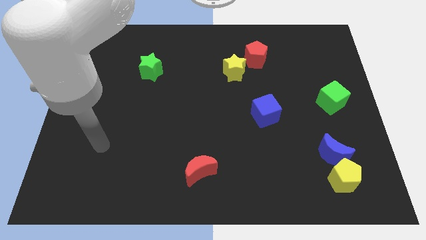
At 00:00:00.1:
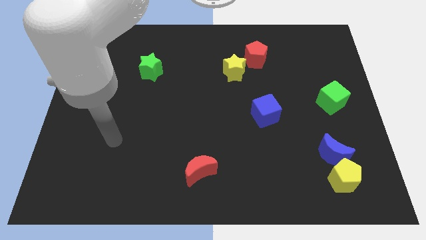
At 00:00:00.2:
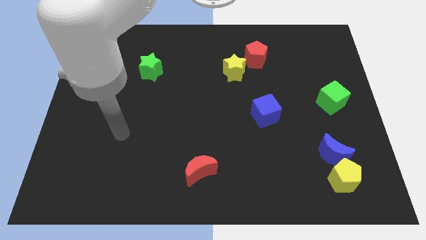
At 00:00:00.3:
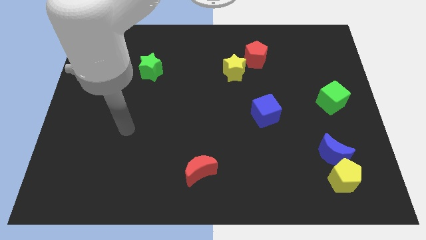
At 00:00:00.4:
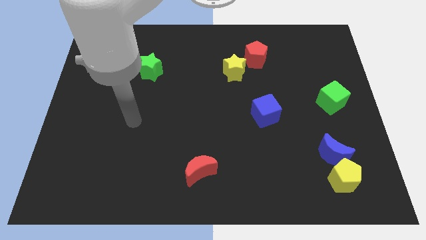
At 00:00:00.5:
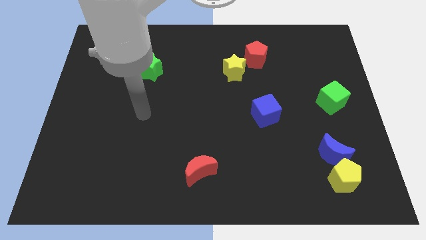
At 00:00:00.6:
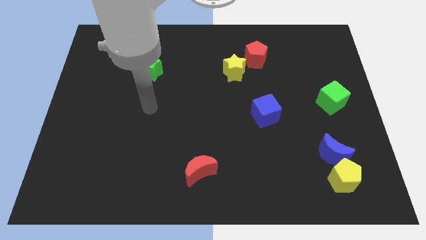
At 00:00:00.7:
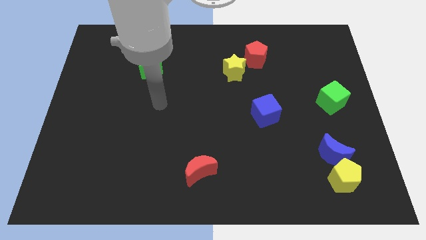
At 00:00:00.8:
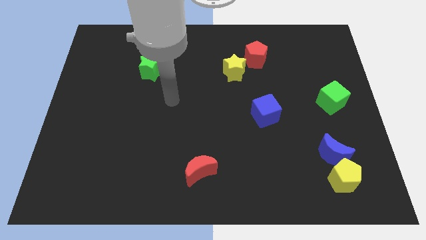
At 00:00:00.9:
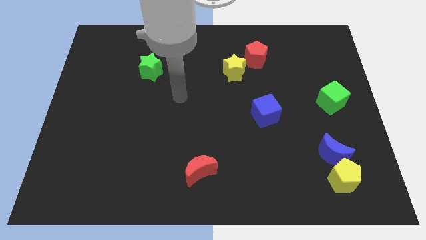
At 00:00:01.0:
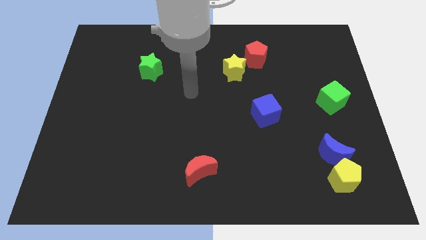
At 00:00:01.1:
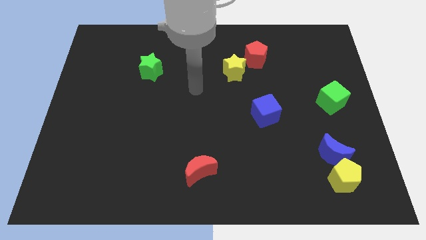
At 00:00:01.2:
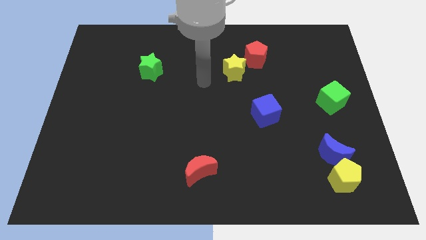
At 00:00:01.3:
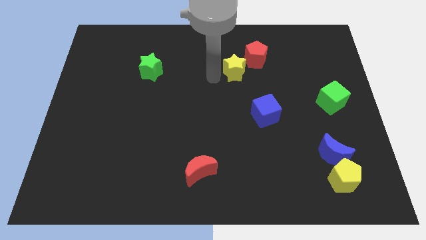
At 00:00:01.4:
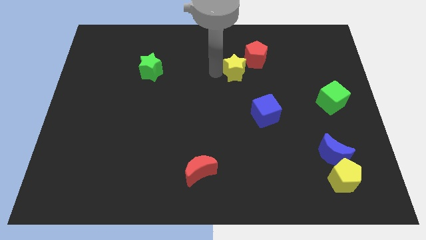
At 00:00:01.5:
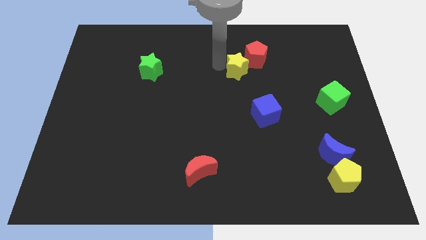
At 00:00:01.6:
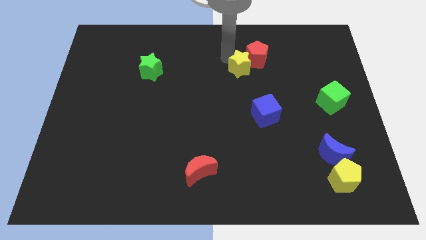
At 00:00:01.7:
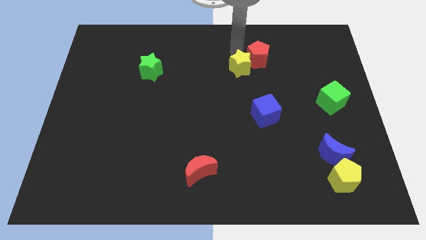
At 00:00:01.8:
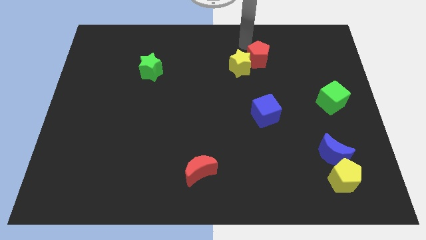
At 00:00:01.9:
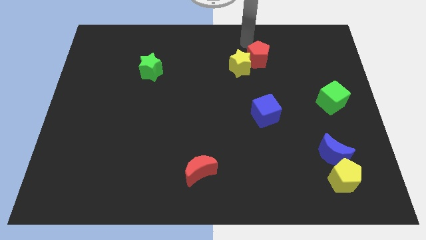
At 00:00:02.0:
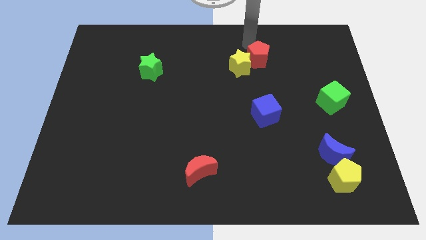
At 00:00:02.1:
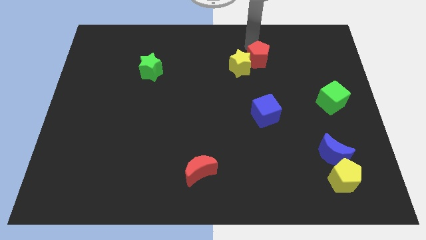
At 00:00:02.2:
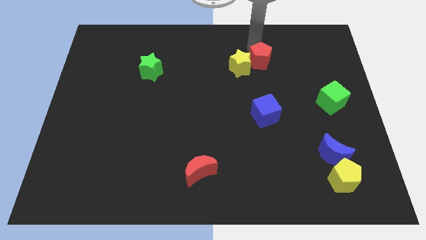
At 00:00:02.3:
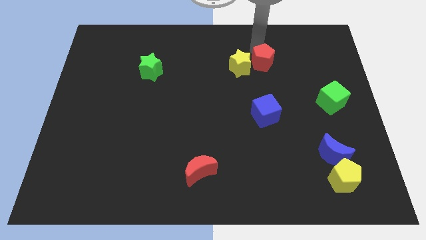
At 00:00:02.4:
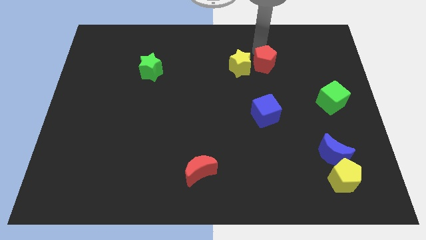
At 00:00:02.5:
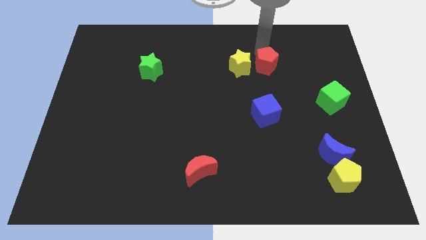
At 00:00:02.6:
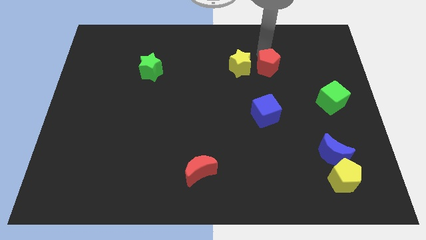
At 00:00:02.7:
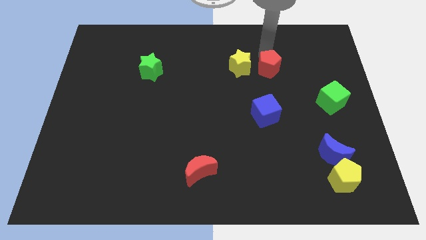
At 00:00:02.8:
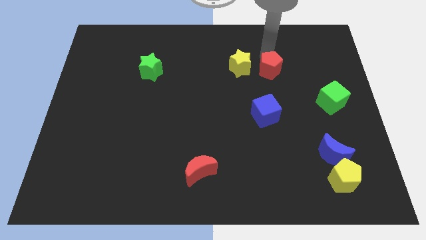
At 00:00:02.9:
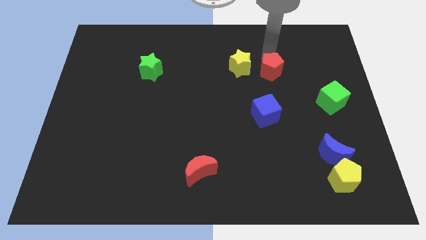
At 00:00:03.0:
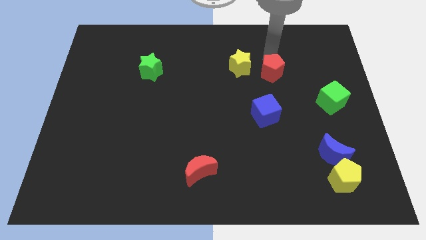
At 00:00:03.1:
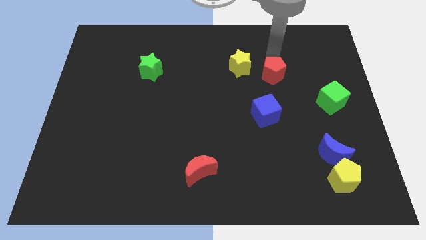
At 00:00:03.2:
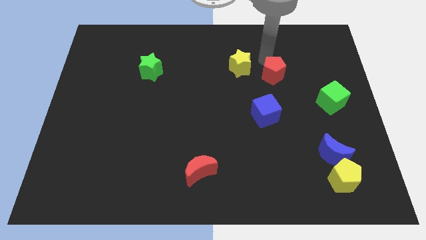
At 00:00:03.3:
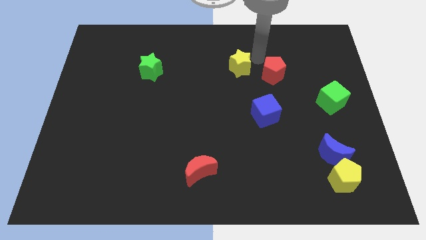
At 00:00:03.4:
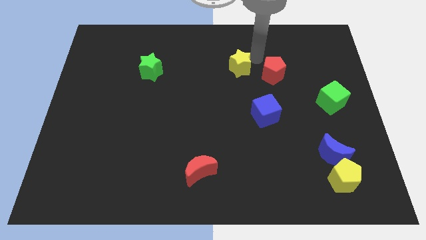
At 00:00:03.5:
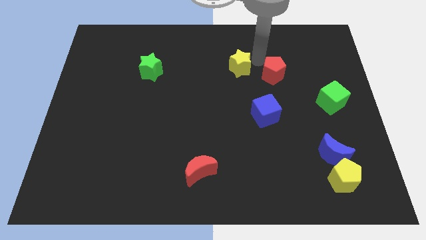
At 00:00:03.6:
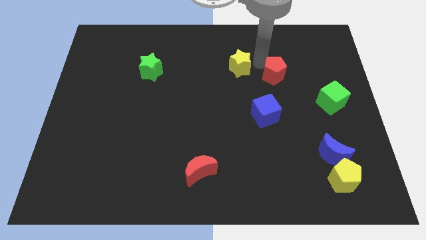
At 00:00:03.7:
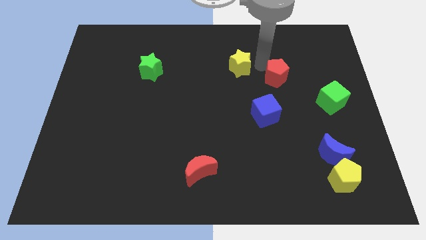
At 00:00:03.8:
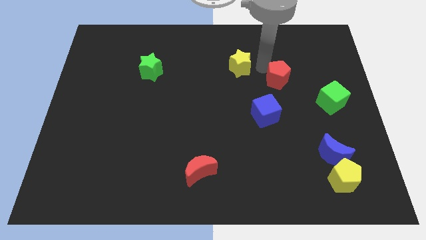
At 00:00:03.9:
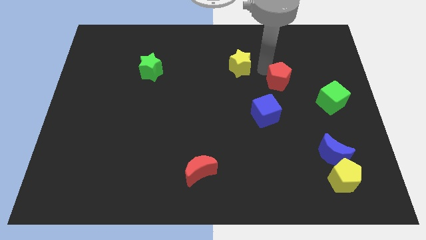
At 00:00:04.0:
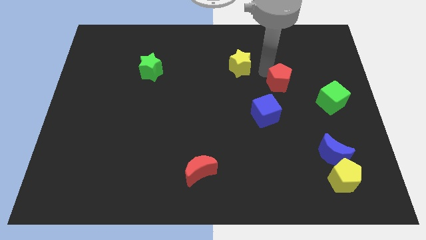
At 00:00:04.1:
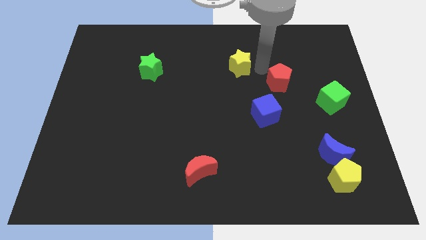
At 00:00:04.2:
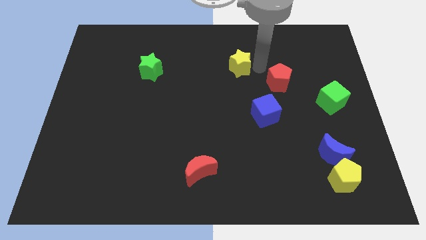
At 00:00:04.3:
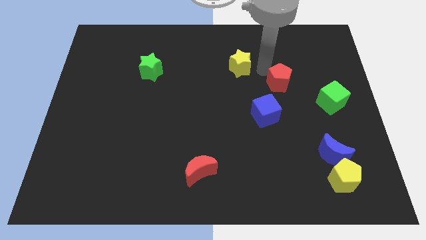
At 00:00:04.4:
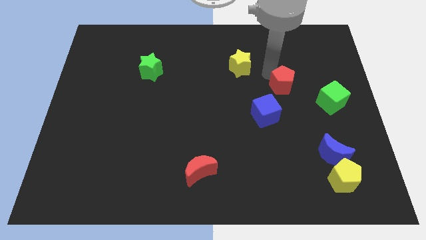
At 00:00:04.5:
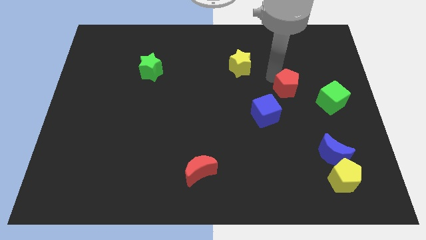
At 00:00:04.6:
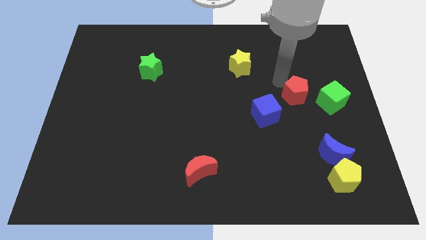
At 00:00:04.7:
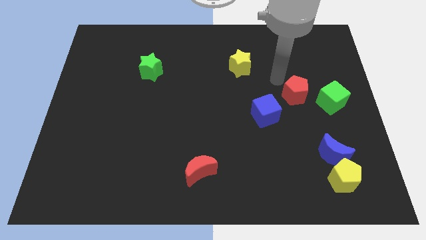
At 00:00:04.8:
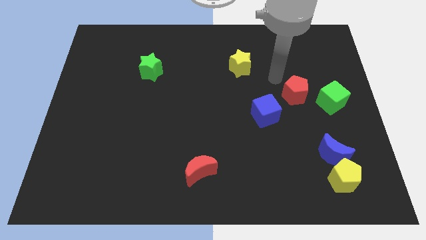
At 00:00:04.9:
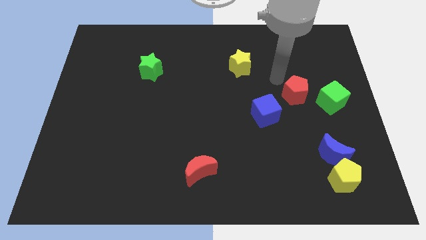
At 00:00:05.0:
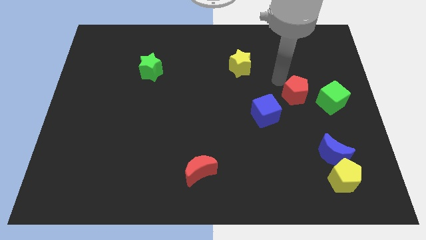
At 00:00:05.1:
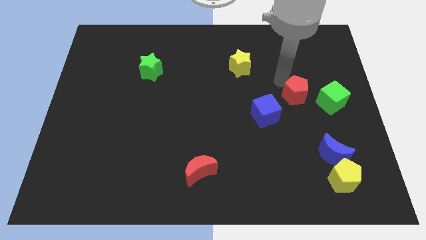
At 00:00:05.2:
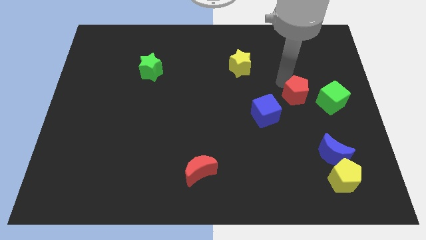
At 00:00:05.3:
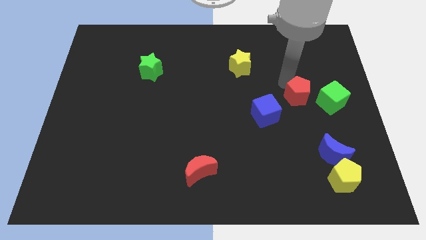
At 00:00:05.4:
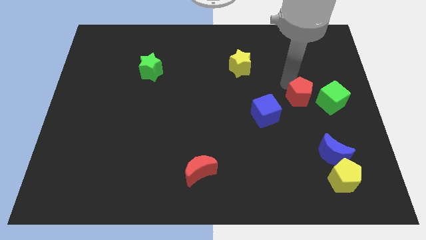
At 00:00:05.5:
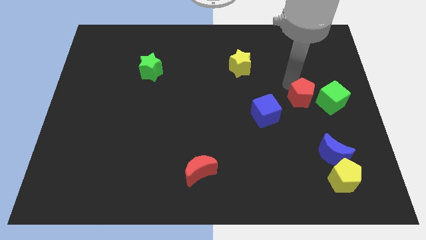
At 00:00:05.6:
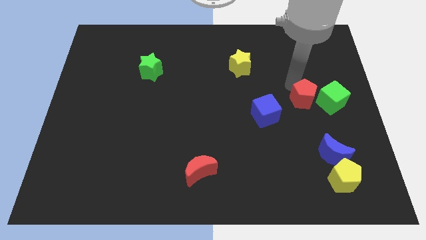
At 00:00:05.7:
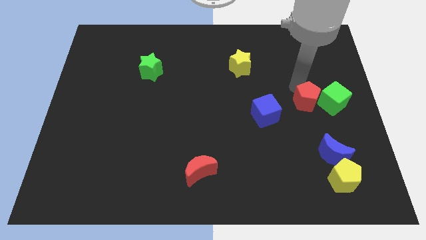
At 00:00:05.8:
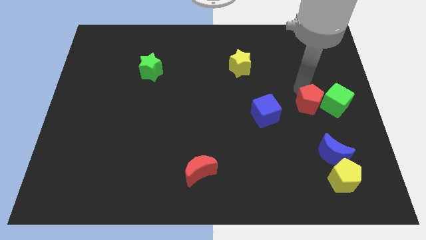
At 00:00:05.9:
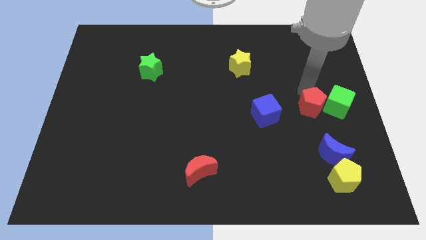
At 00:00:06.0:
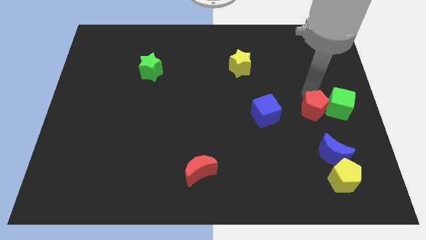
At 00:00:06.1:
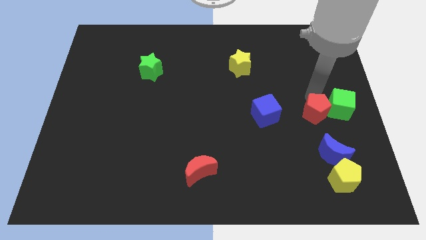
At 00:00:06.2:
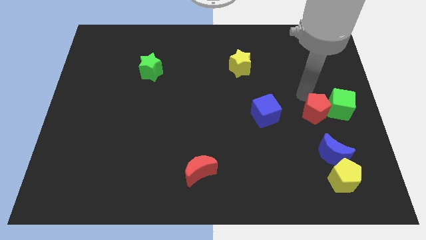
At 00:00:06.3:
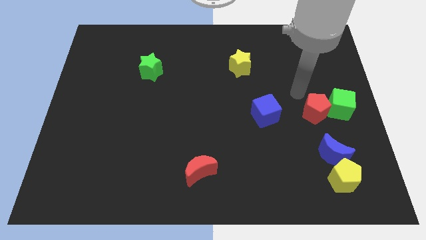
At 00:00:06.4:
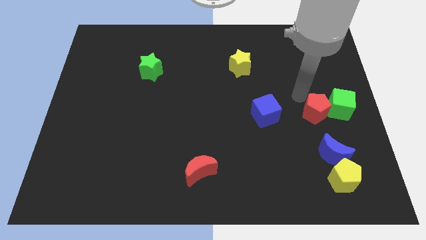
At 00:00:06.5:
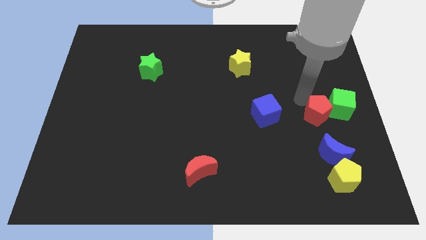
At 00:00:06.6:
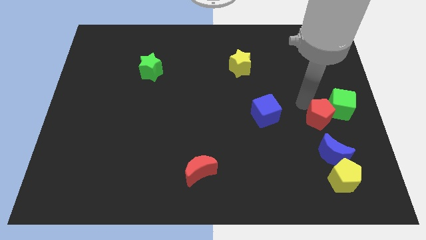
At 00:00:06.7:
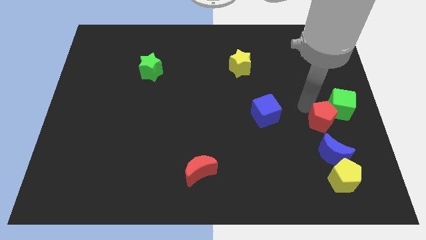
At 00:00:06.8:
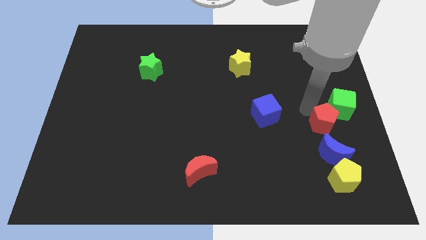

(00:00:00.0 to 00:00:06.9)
slide the red pentagon to the bottom side of the green cube
